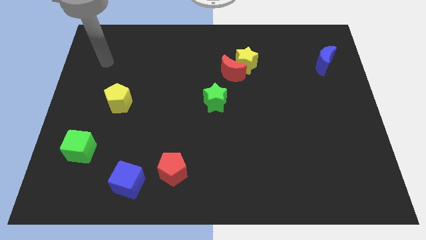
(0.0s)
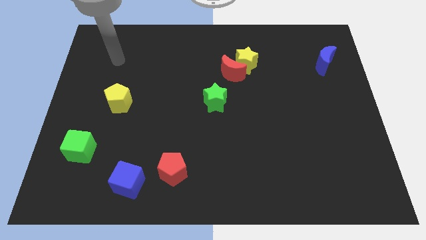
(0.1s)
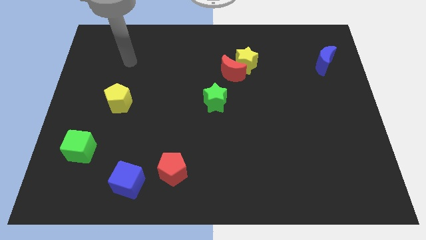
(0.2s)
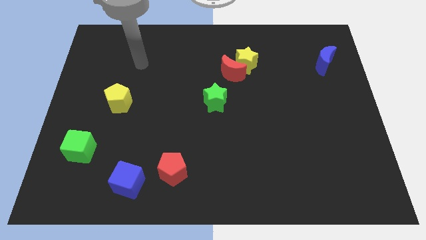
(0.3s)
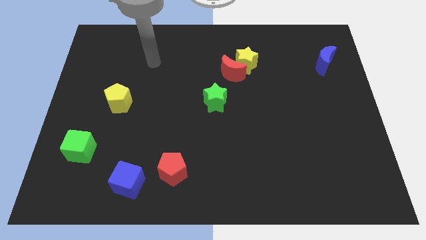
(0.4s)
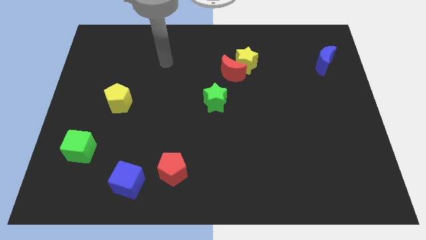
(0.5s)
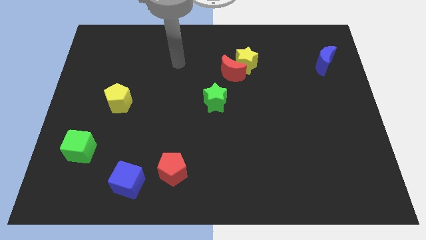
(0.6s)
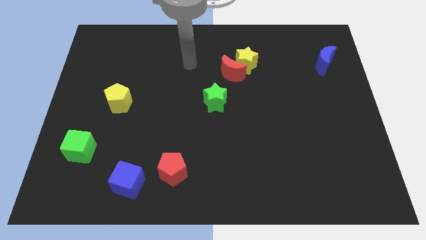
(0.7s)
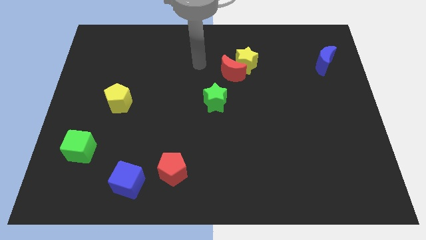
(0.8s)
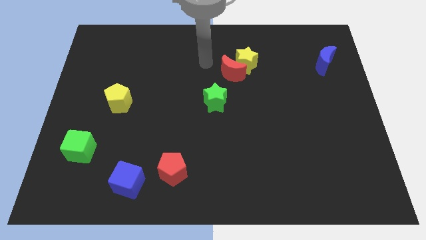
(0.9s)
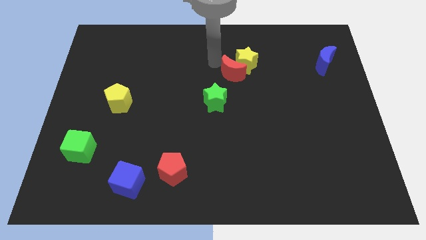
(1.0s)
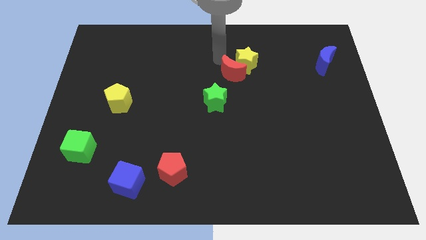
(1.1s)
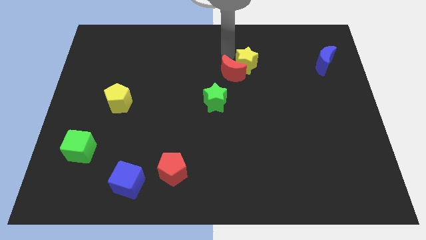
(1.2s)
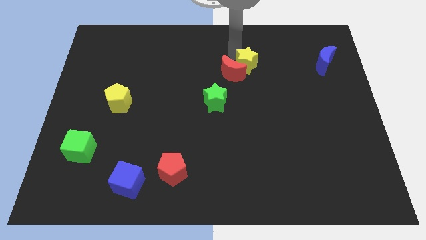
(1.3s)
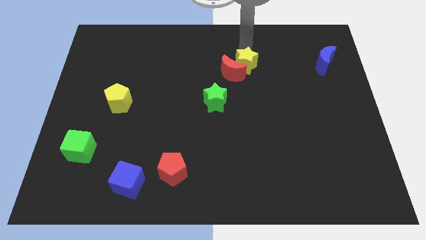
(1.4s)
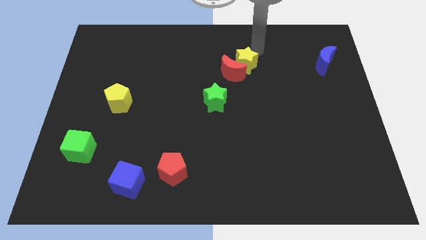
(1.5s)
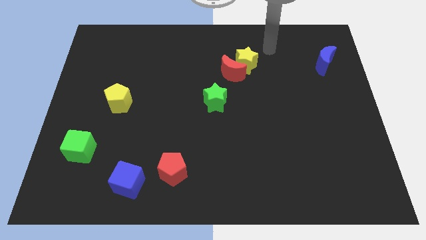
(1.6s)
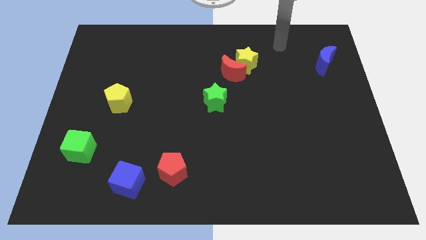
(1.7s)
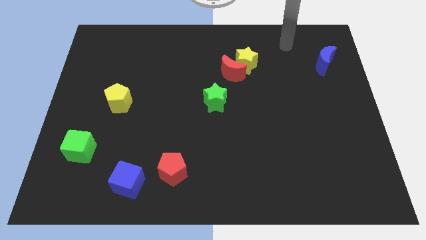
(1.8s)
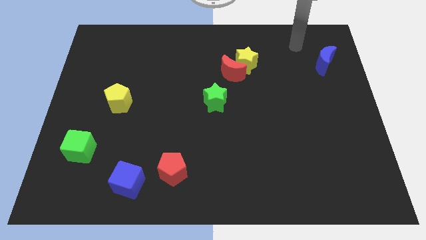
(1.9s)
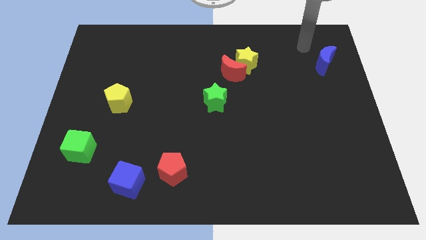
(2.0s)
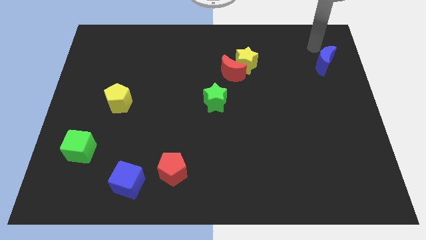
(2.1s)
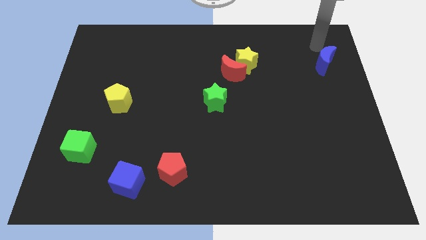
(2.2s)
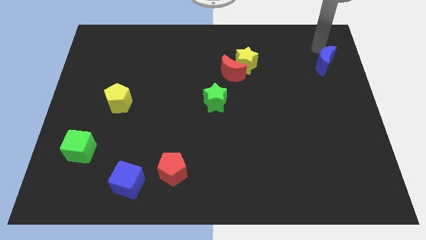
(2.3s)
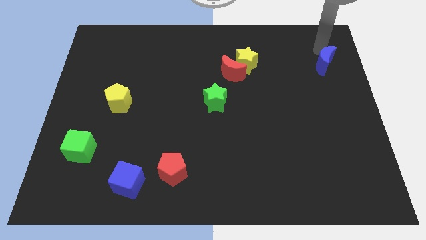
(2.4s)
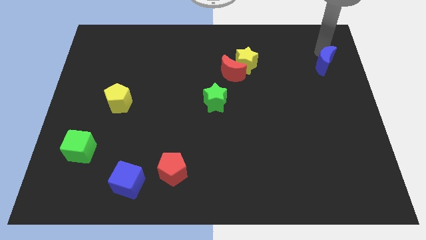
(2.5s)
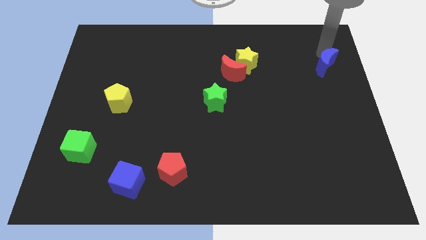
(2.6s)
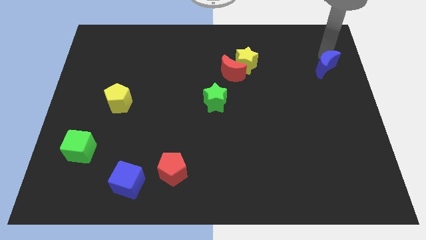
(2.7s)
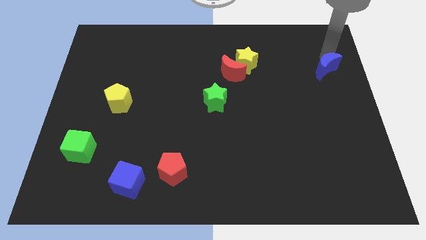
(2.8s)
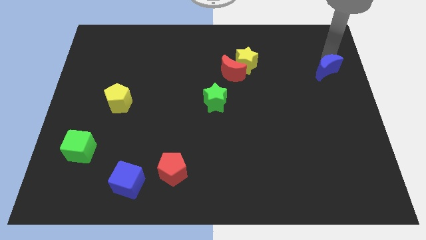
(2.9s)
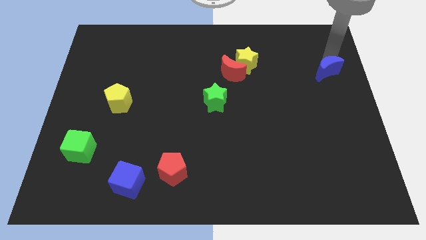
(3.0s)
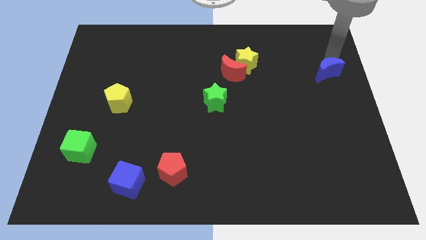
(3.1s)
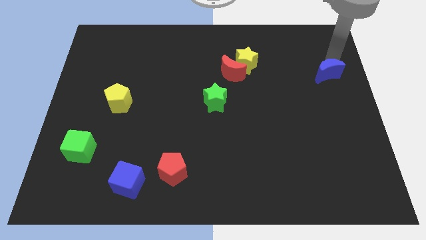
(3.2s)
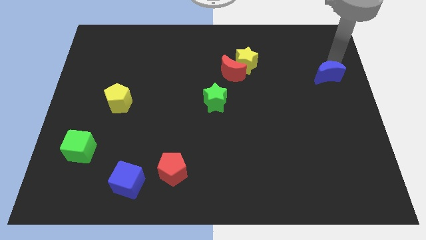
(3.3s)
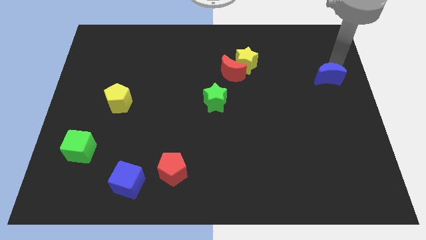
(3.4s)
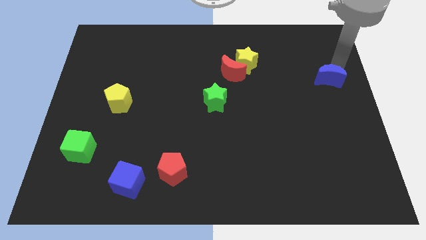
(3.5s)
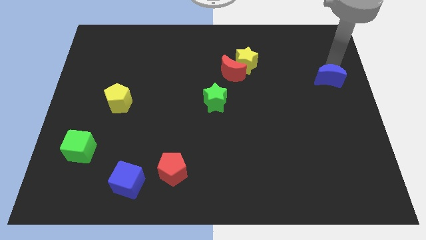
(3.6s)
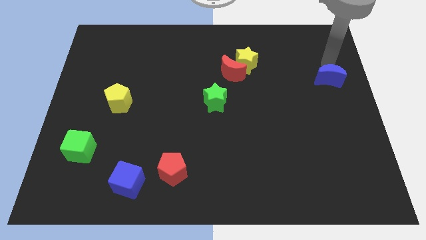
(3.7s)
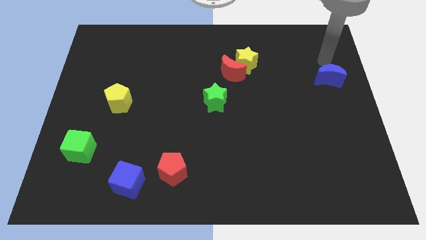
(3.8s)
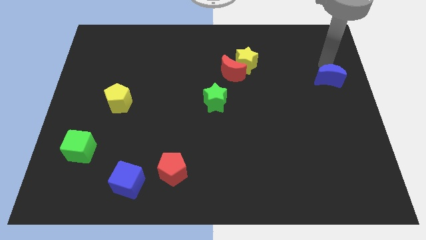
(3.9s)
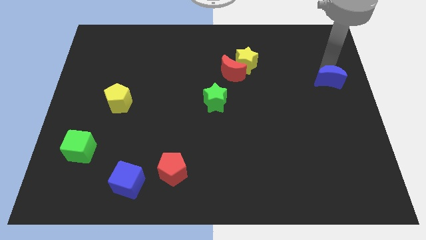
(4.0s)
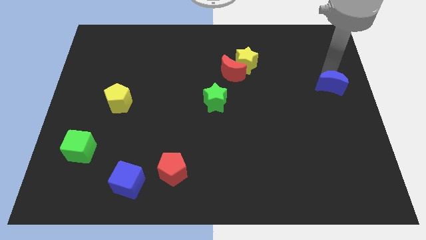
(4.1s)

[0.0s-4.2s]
move the blue moon down a little

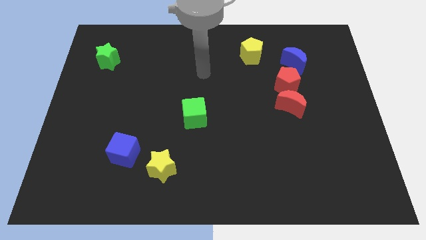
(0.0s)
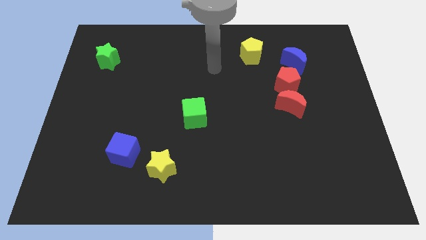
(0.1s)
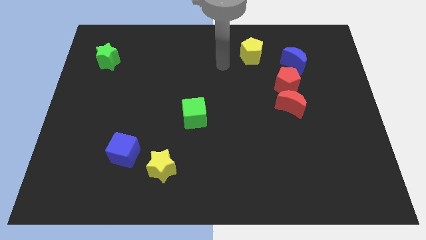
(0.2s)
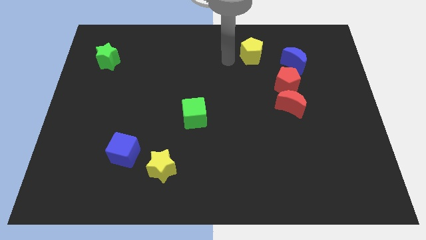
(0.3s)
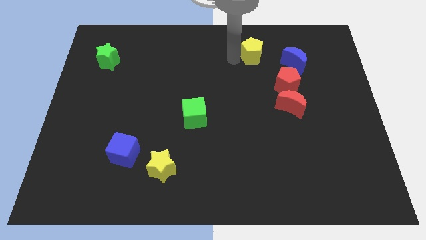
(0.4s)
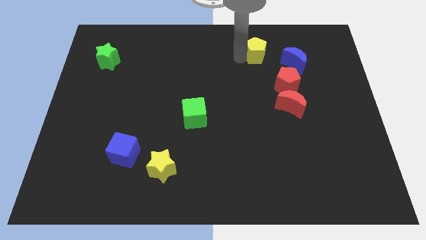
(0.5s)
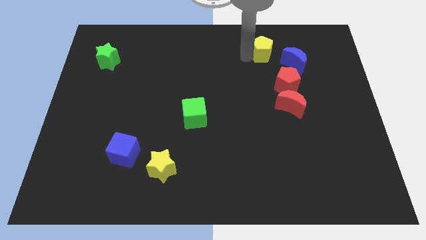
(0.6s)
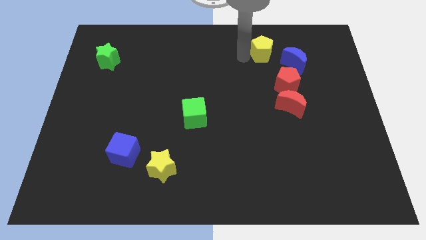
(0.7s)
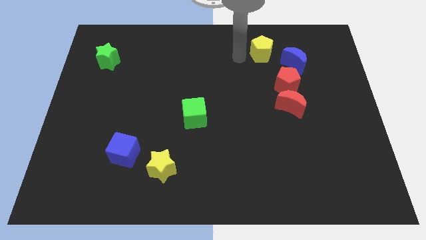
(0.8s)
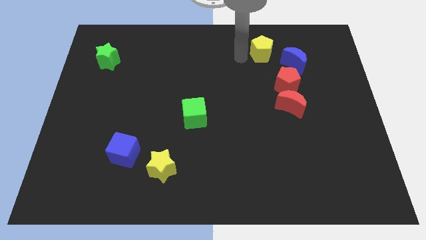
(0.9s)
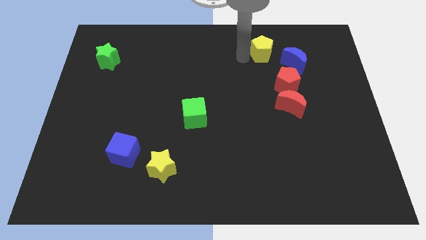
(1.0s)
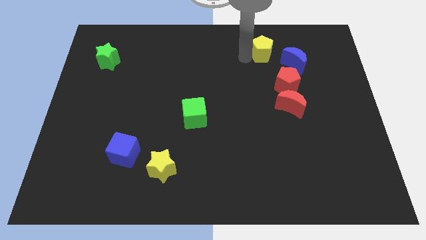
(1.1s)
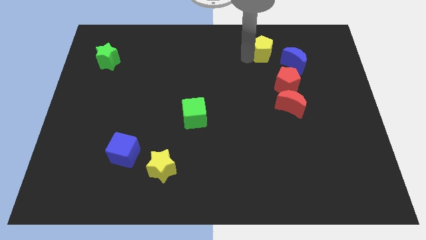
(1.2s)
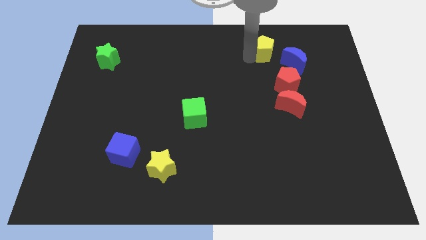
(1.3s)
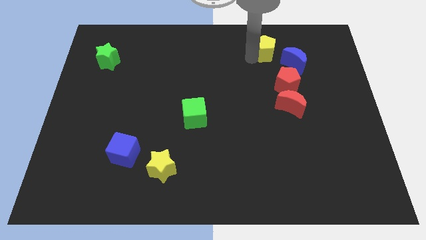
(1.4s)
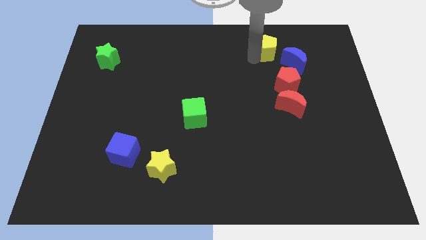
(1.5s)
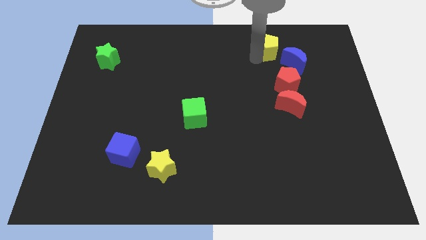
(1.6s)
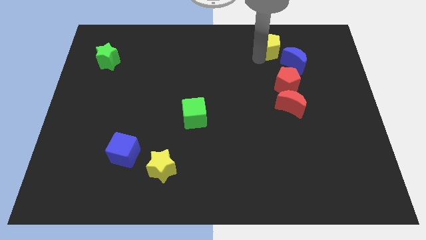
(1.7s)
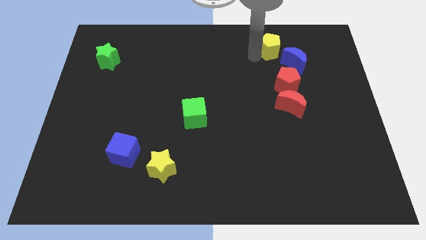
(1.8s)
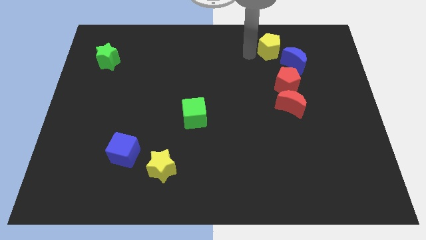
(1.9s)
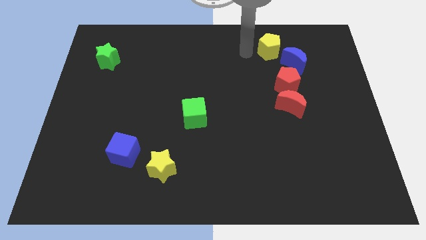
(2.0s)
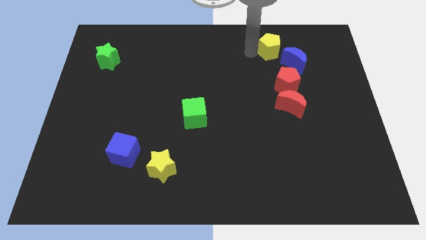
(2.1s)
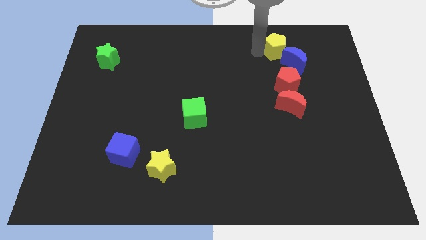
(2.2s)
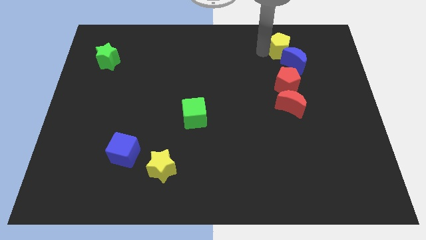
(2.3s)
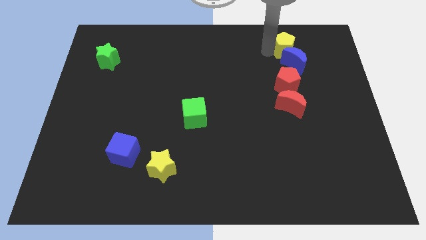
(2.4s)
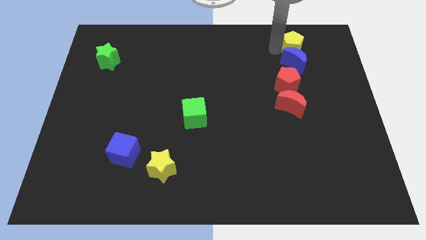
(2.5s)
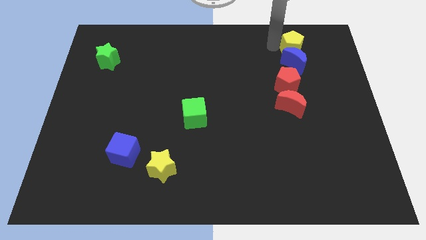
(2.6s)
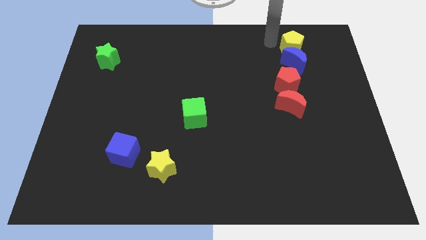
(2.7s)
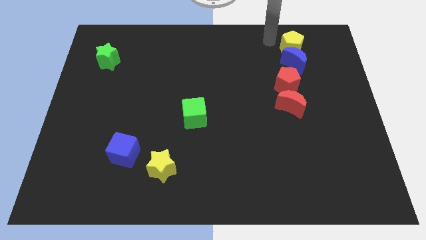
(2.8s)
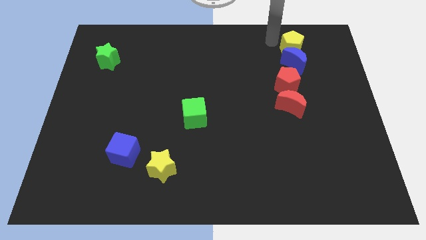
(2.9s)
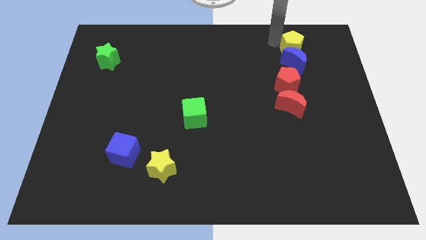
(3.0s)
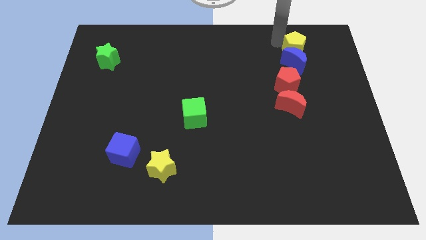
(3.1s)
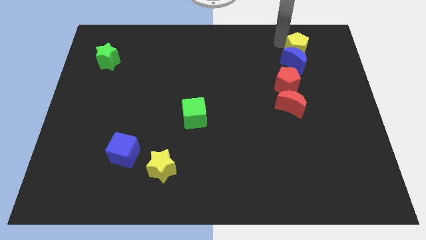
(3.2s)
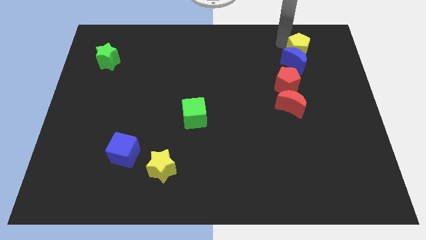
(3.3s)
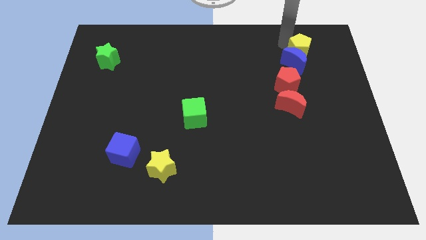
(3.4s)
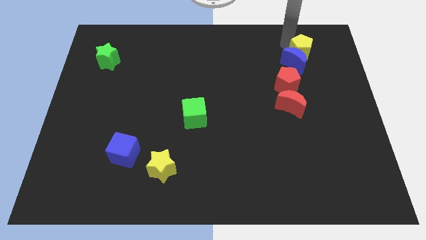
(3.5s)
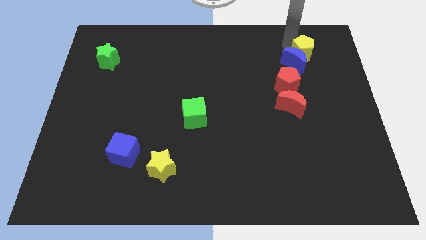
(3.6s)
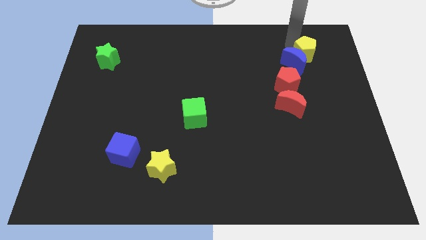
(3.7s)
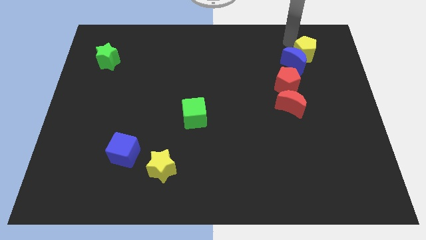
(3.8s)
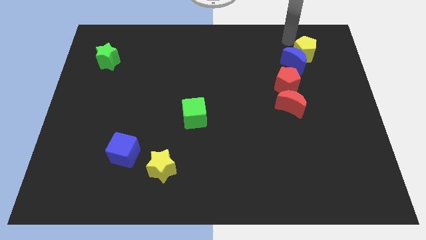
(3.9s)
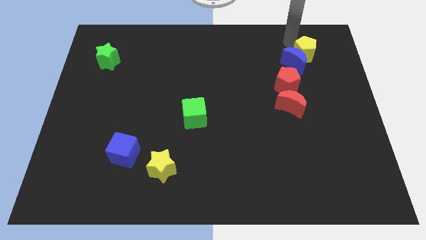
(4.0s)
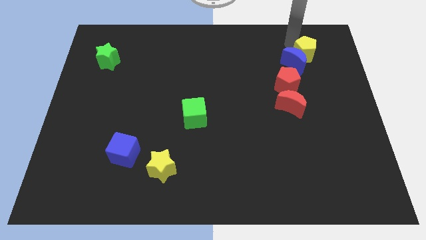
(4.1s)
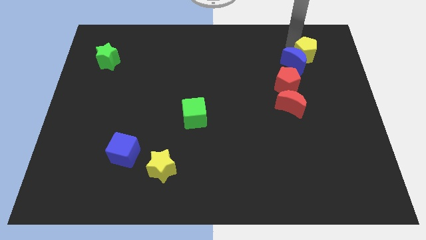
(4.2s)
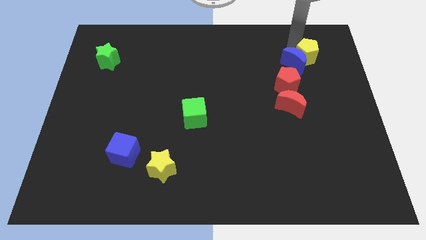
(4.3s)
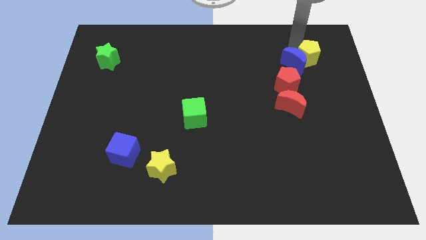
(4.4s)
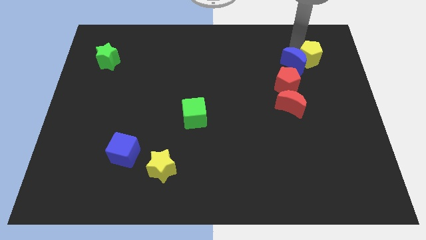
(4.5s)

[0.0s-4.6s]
move the yellow pentagon somewhat diagonally downwards and to the right
